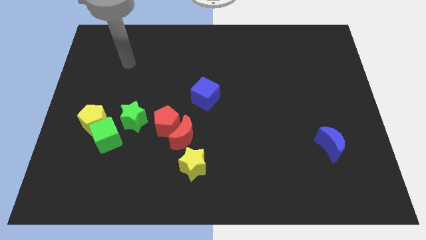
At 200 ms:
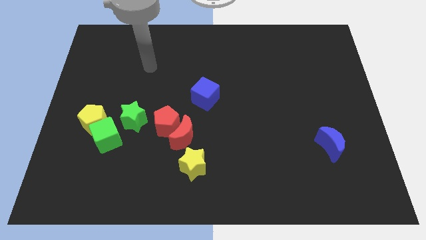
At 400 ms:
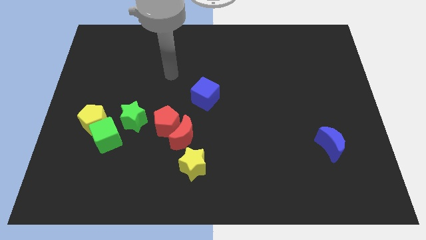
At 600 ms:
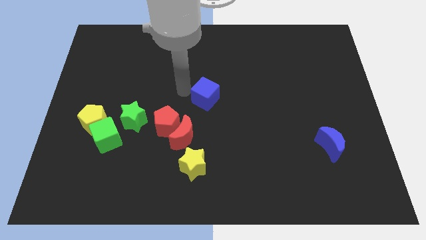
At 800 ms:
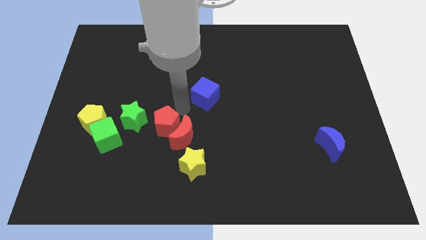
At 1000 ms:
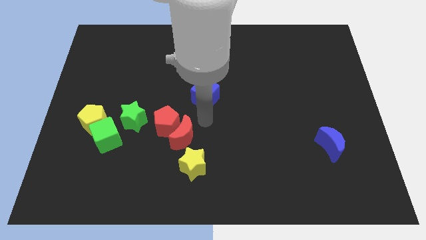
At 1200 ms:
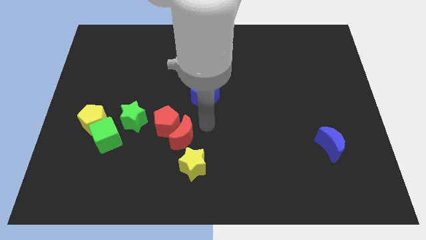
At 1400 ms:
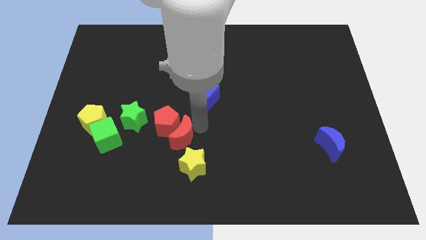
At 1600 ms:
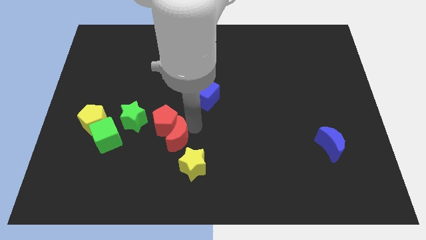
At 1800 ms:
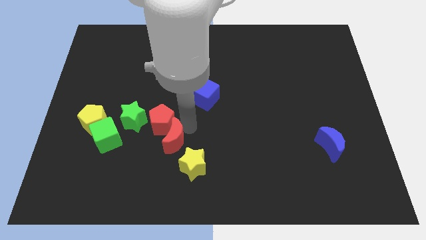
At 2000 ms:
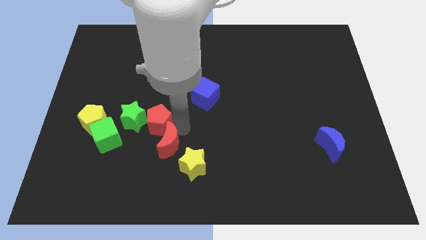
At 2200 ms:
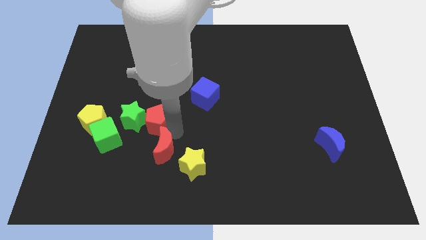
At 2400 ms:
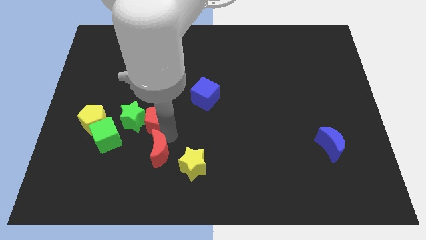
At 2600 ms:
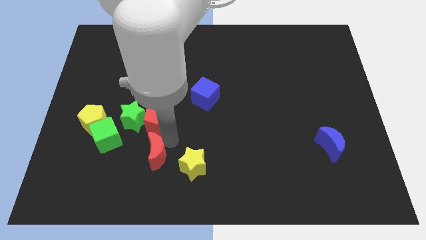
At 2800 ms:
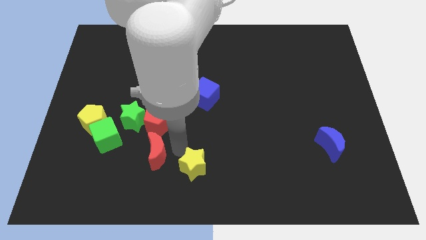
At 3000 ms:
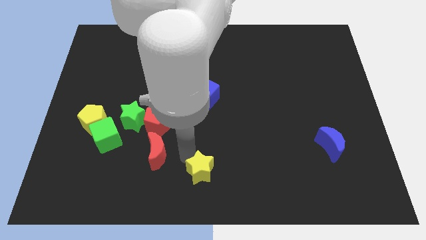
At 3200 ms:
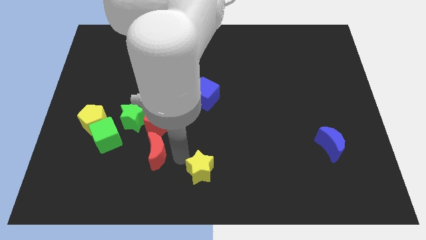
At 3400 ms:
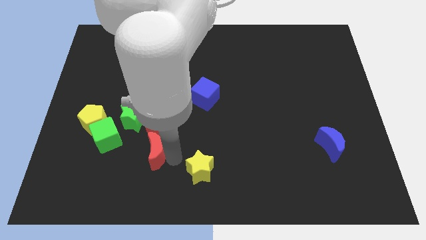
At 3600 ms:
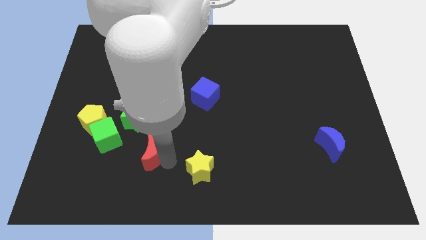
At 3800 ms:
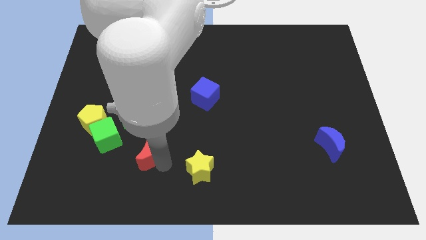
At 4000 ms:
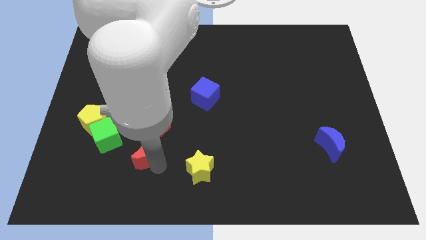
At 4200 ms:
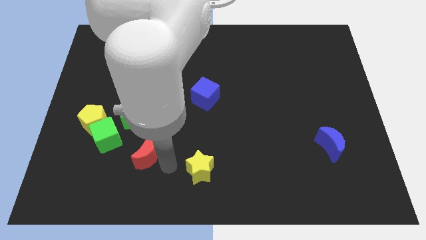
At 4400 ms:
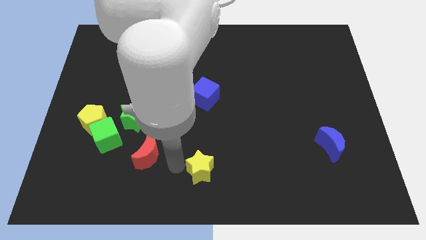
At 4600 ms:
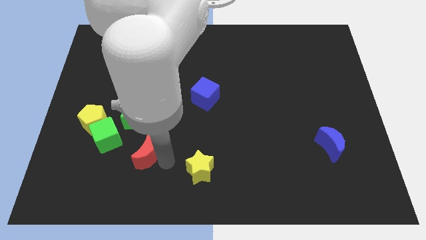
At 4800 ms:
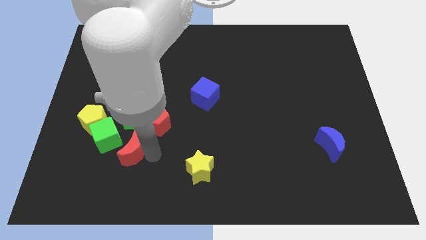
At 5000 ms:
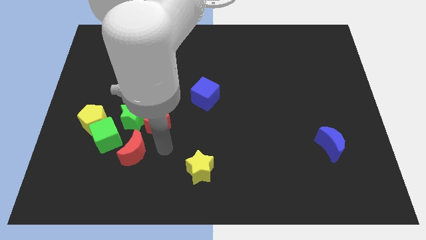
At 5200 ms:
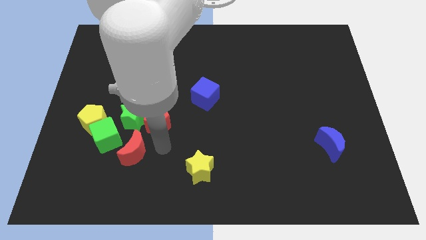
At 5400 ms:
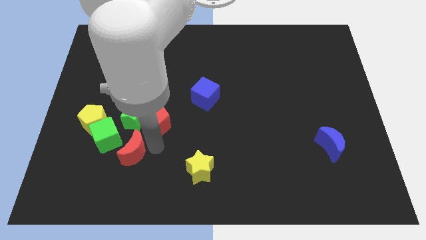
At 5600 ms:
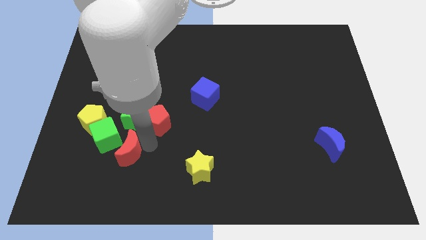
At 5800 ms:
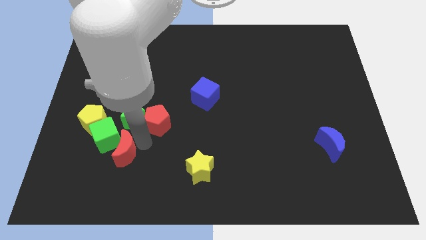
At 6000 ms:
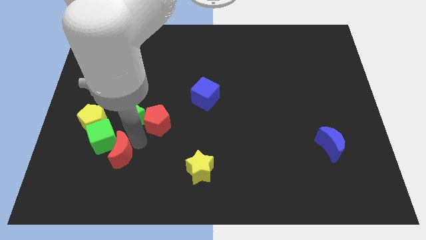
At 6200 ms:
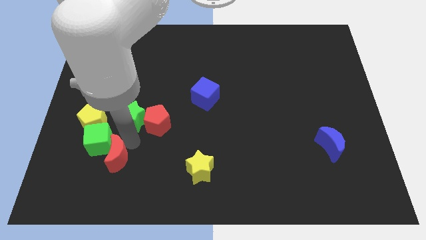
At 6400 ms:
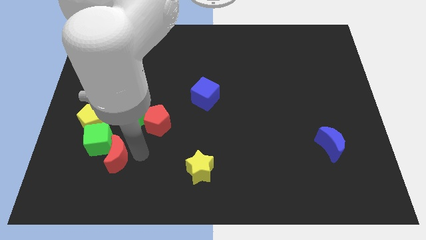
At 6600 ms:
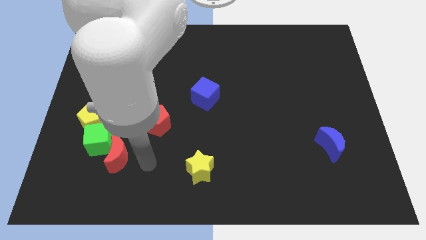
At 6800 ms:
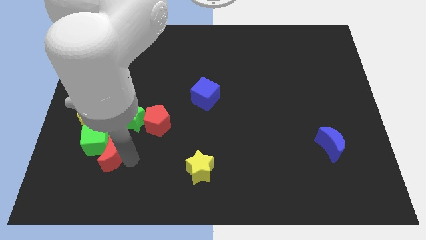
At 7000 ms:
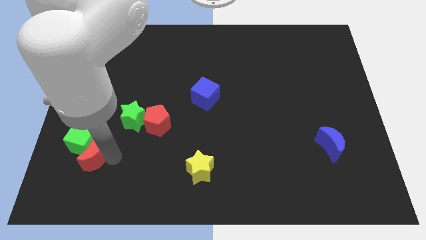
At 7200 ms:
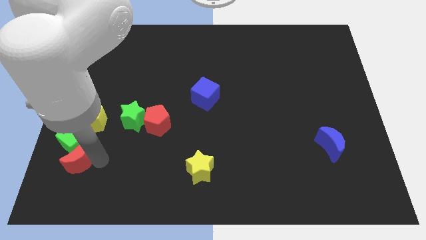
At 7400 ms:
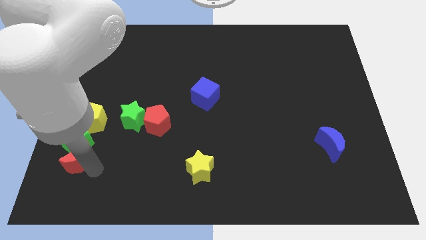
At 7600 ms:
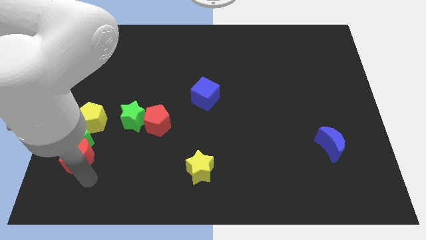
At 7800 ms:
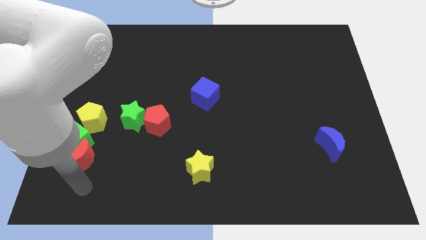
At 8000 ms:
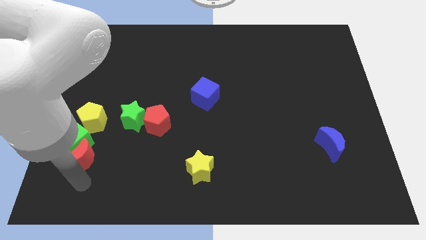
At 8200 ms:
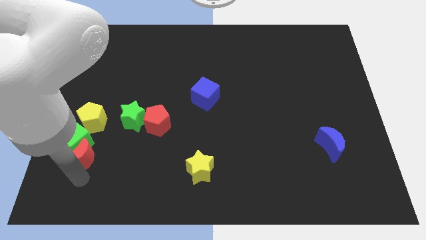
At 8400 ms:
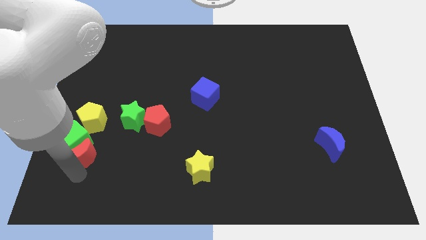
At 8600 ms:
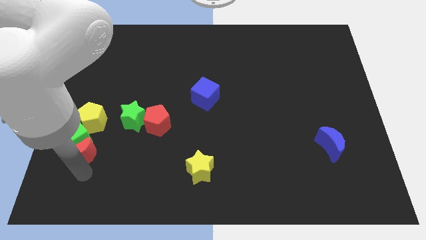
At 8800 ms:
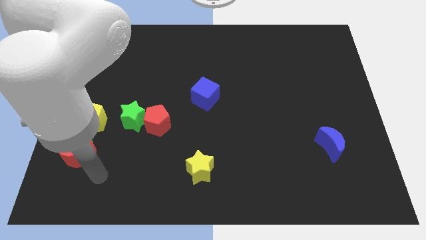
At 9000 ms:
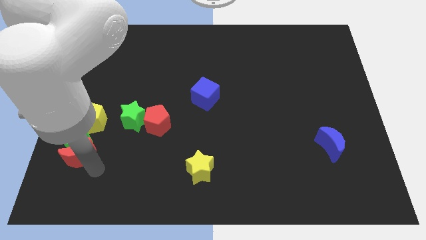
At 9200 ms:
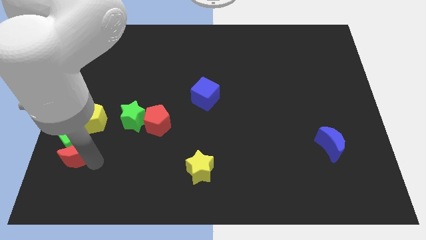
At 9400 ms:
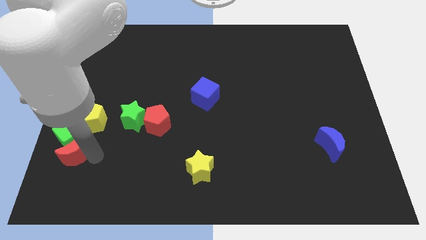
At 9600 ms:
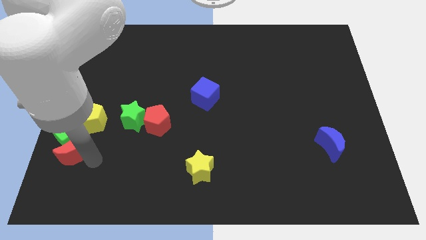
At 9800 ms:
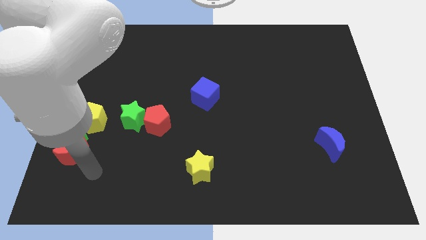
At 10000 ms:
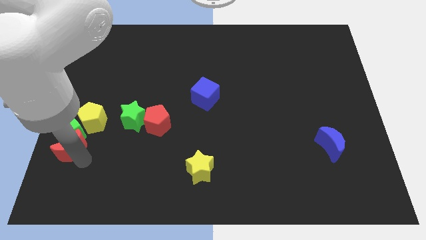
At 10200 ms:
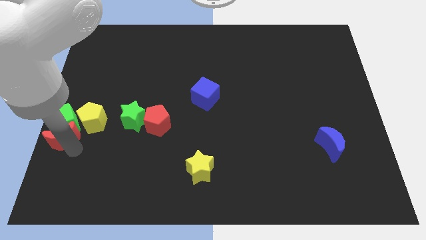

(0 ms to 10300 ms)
put the red moon to the left side

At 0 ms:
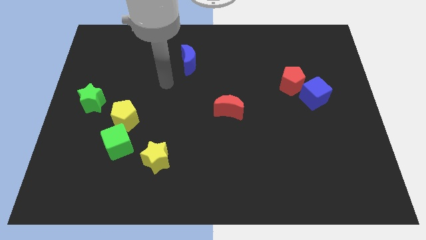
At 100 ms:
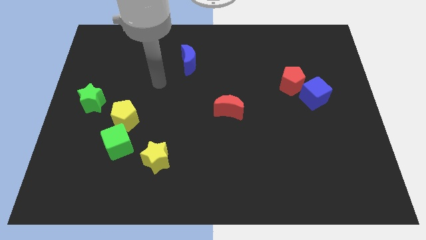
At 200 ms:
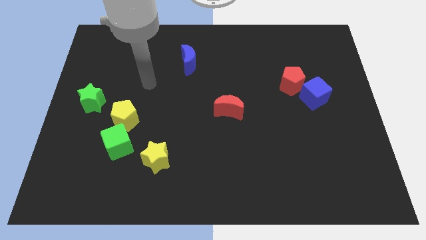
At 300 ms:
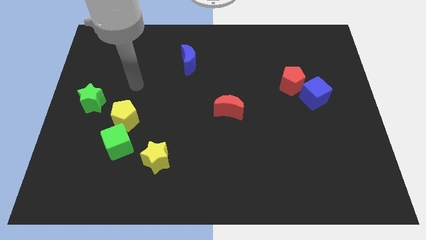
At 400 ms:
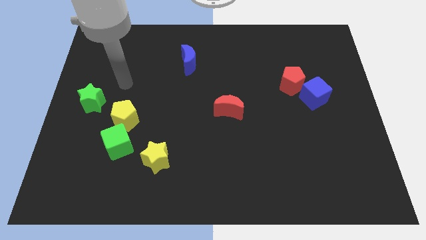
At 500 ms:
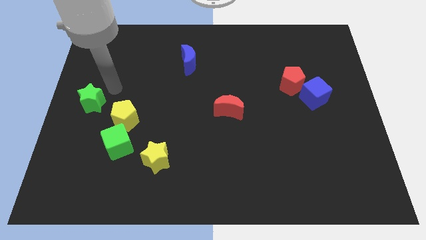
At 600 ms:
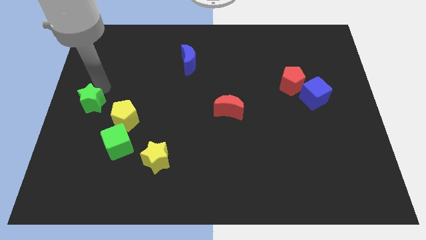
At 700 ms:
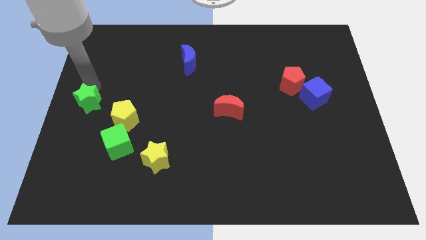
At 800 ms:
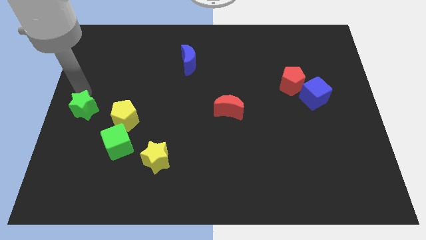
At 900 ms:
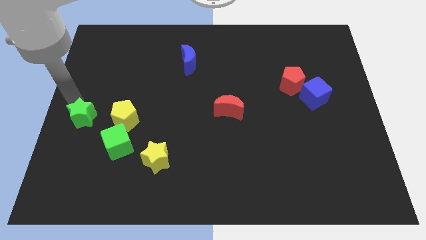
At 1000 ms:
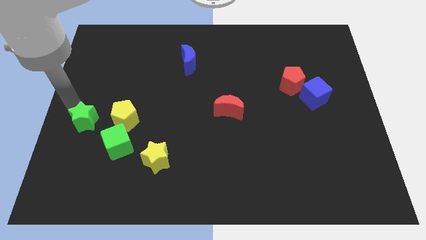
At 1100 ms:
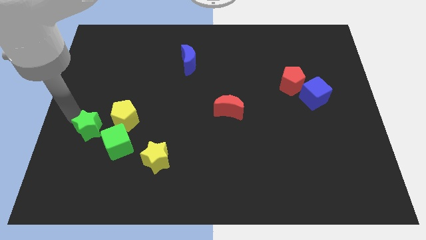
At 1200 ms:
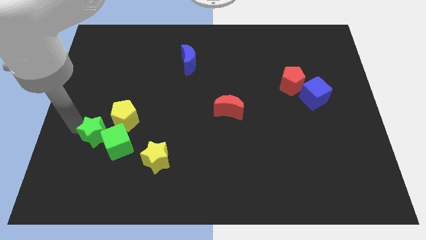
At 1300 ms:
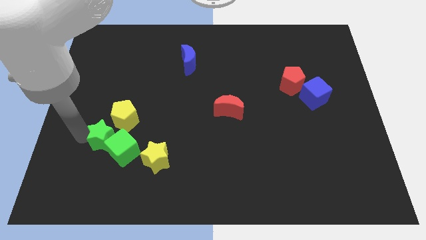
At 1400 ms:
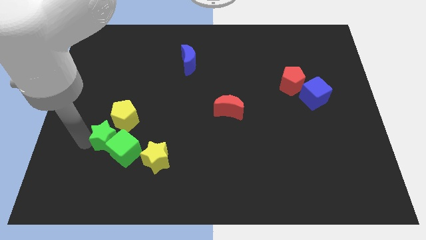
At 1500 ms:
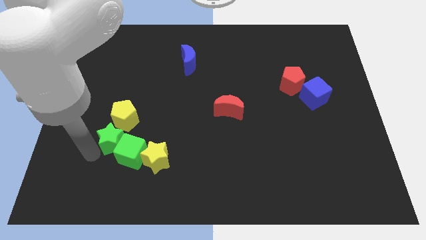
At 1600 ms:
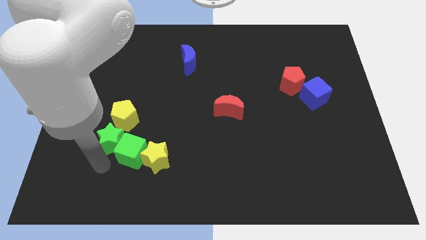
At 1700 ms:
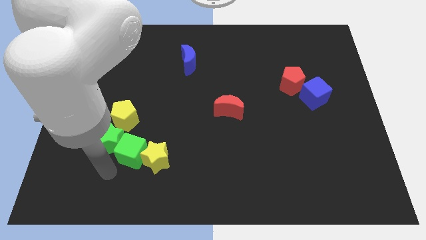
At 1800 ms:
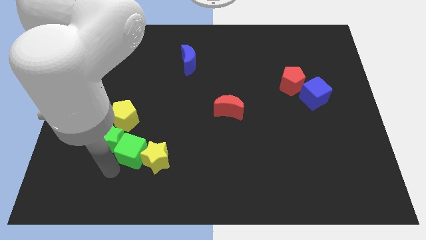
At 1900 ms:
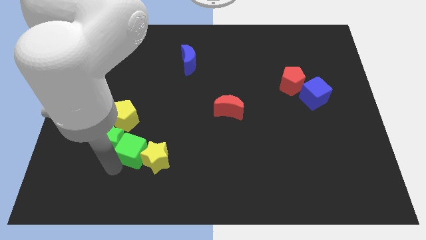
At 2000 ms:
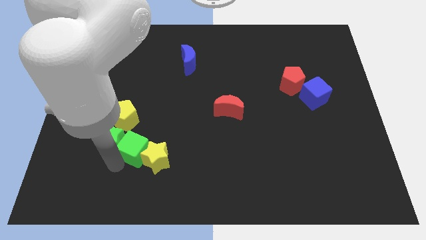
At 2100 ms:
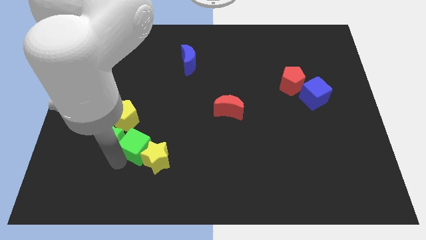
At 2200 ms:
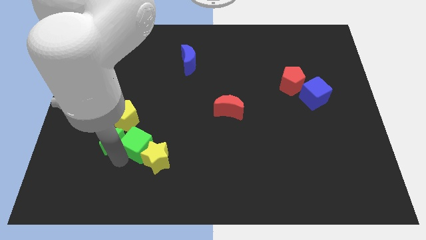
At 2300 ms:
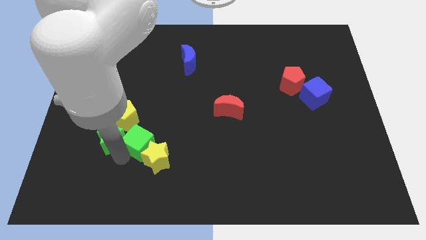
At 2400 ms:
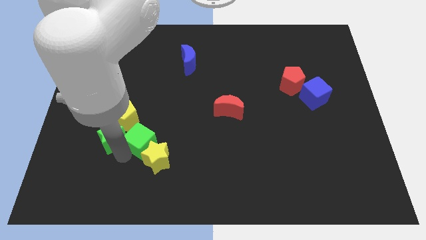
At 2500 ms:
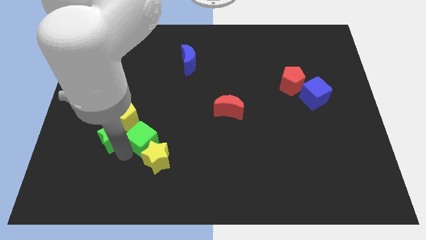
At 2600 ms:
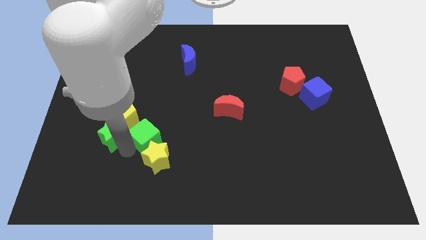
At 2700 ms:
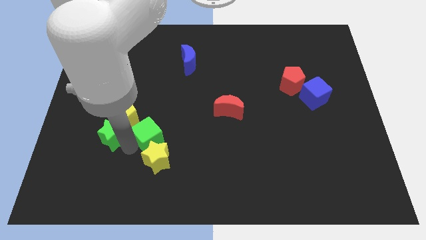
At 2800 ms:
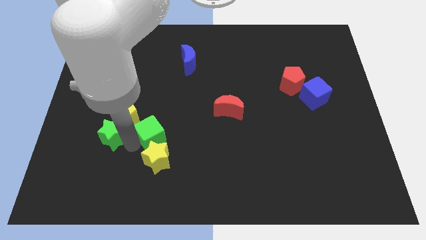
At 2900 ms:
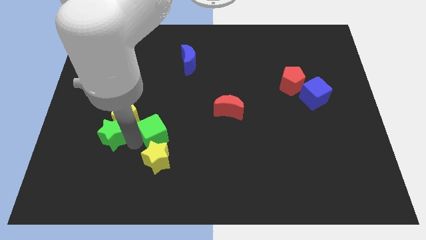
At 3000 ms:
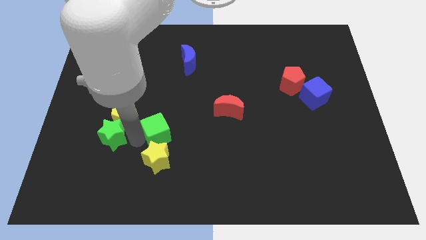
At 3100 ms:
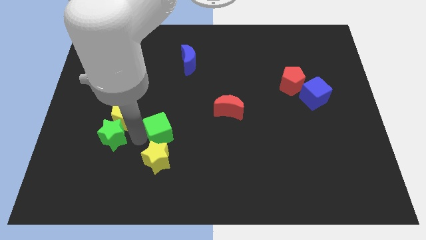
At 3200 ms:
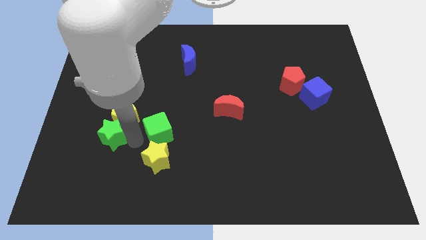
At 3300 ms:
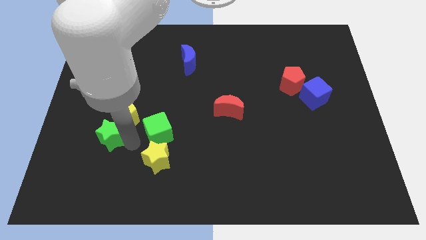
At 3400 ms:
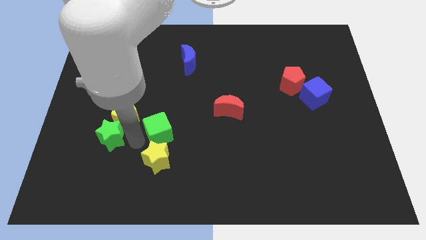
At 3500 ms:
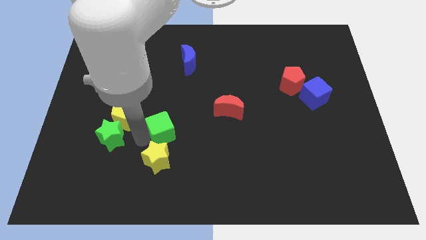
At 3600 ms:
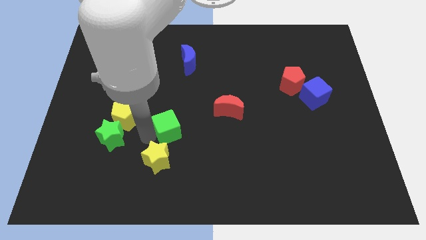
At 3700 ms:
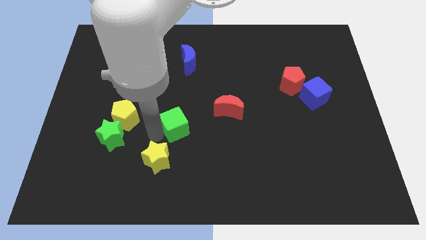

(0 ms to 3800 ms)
put the green cube to the middle
